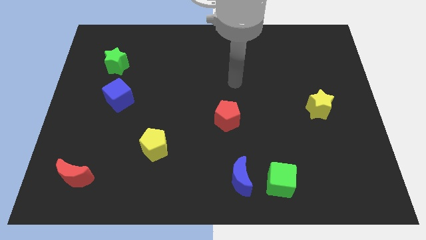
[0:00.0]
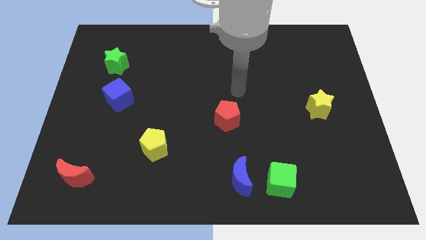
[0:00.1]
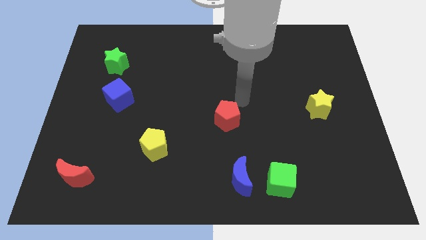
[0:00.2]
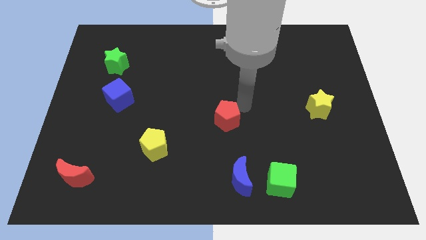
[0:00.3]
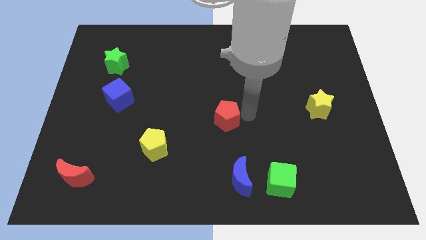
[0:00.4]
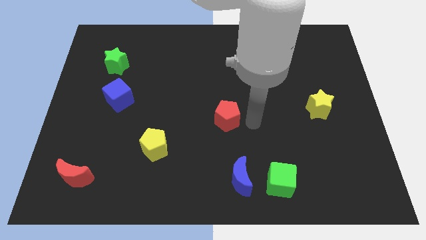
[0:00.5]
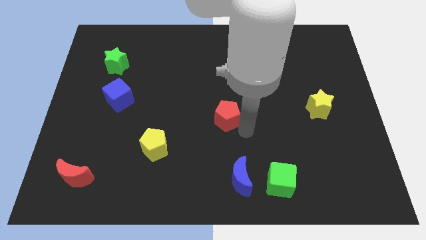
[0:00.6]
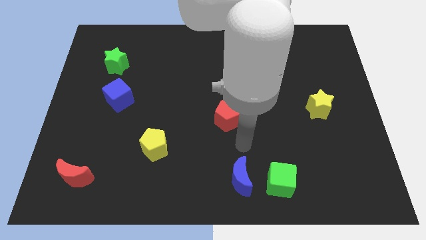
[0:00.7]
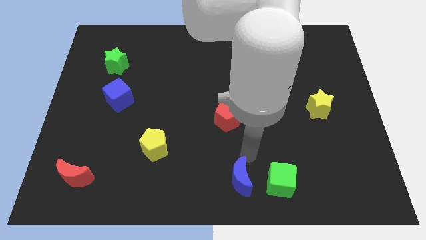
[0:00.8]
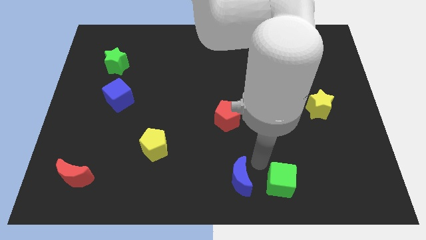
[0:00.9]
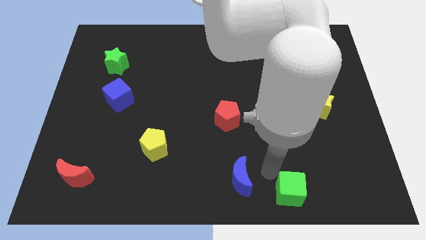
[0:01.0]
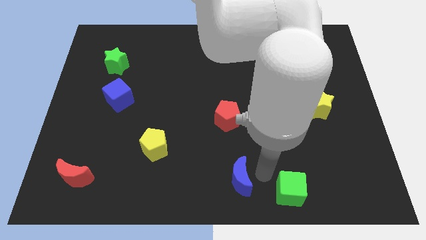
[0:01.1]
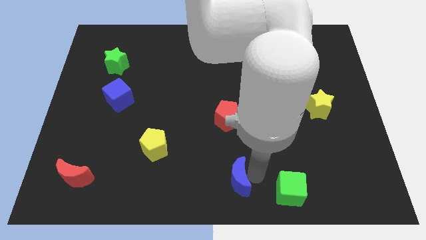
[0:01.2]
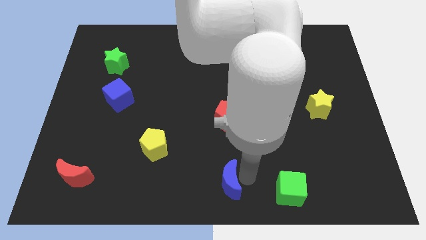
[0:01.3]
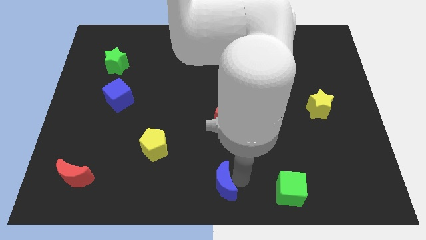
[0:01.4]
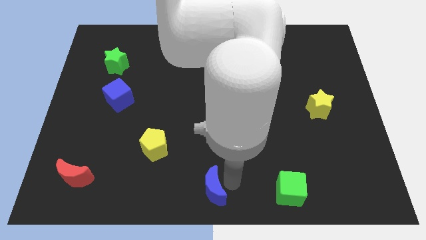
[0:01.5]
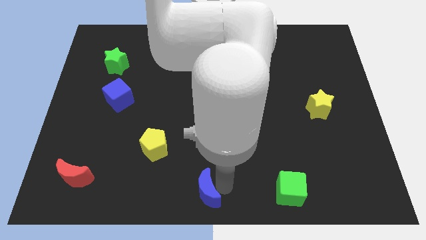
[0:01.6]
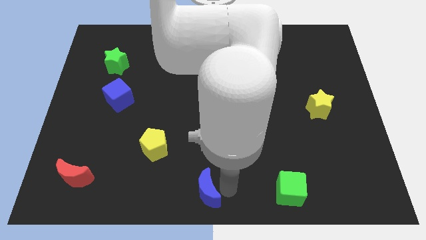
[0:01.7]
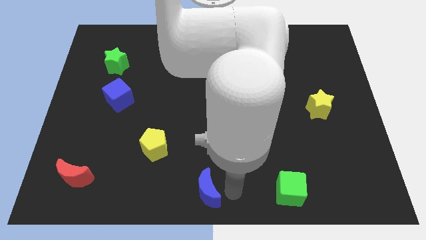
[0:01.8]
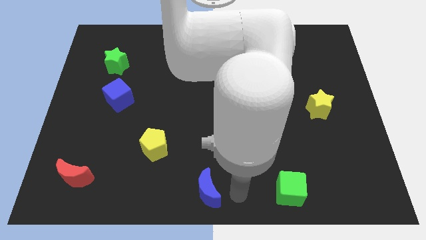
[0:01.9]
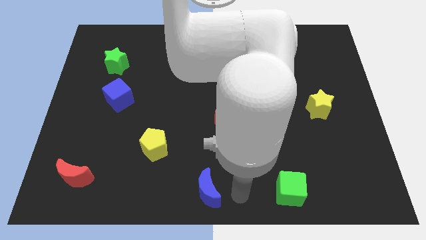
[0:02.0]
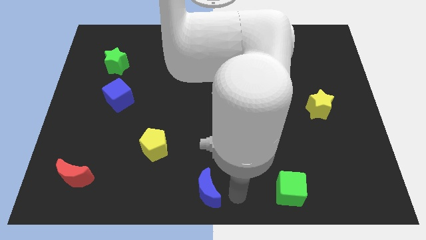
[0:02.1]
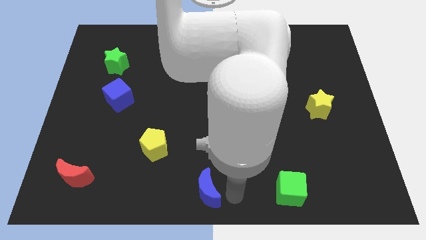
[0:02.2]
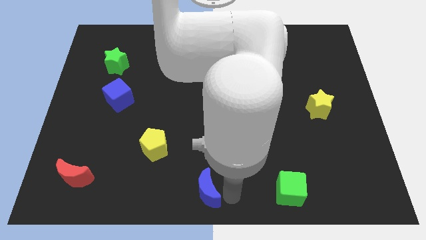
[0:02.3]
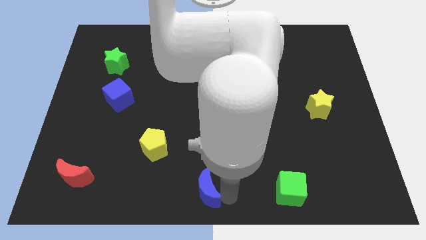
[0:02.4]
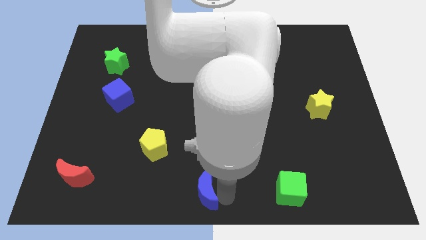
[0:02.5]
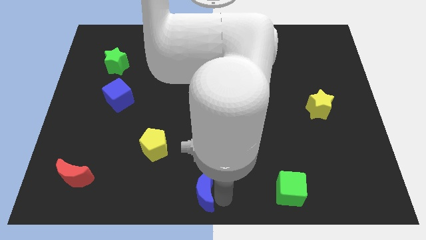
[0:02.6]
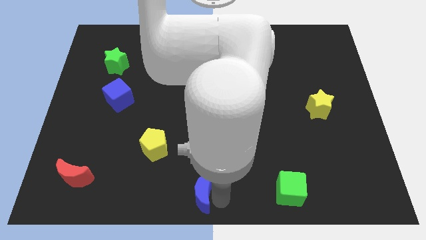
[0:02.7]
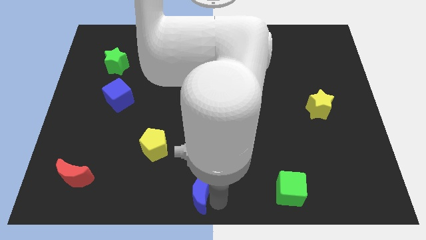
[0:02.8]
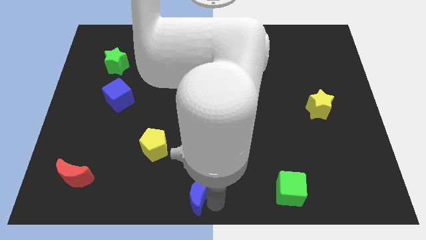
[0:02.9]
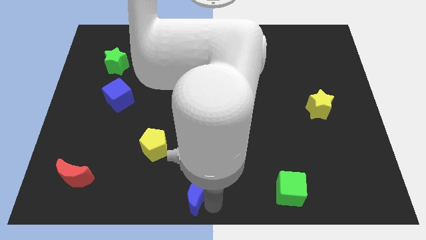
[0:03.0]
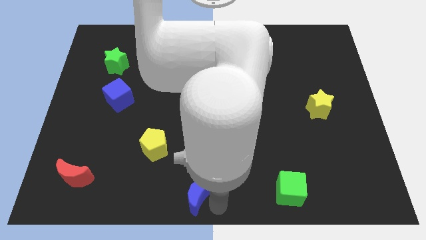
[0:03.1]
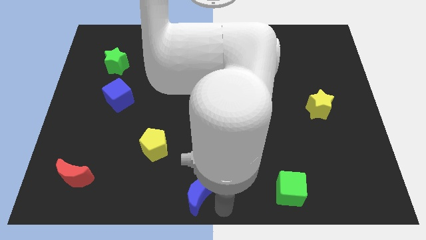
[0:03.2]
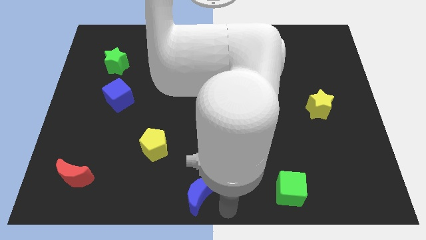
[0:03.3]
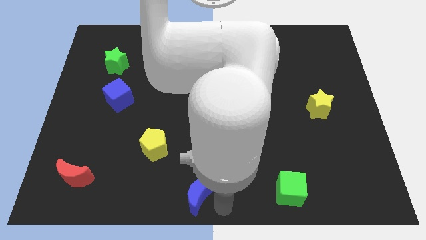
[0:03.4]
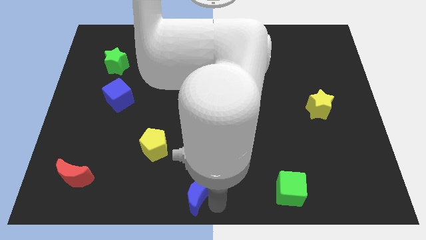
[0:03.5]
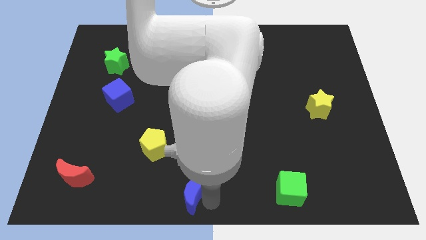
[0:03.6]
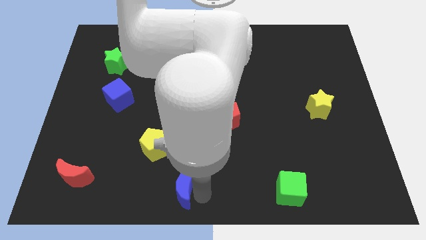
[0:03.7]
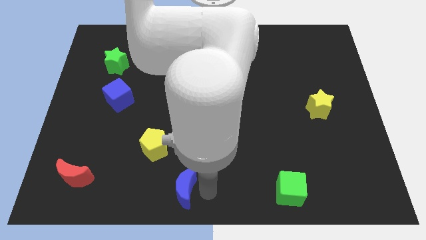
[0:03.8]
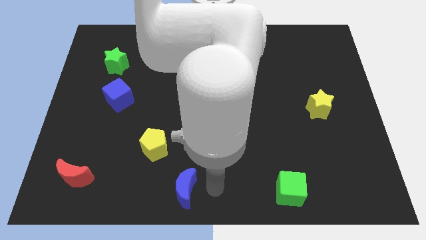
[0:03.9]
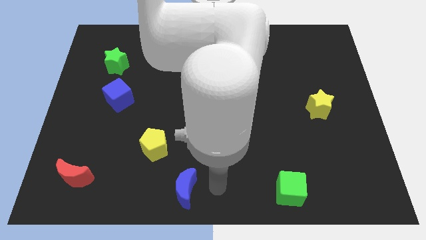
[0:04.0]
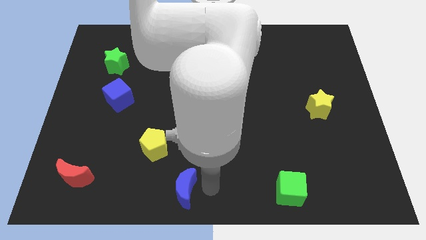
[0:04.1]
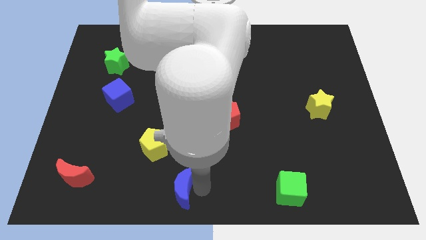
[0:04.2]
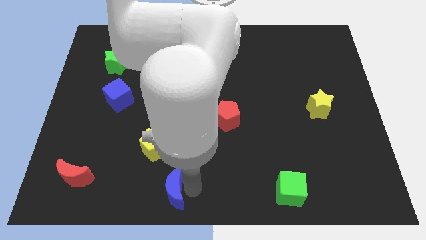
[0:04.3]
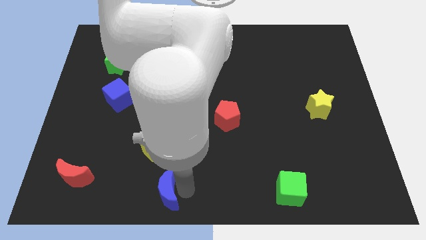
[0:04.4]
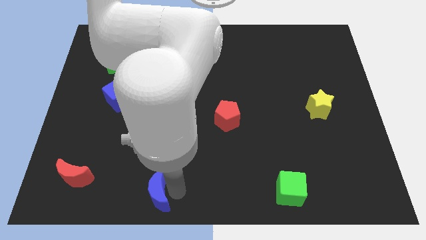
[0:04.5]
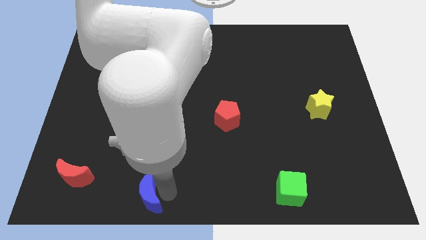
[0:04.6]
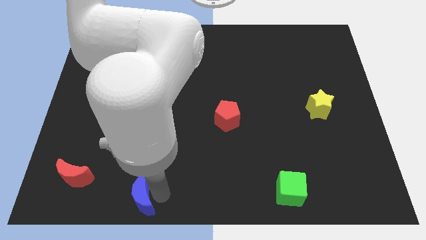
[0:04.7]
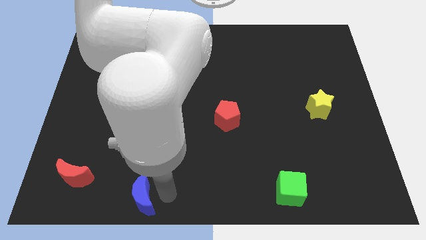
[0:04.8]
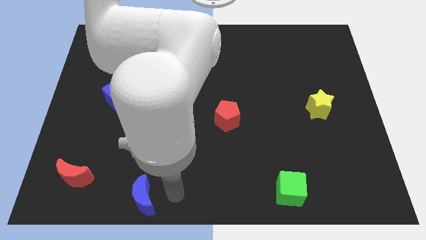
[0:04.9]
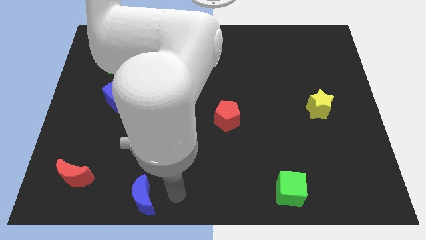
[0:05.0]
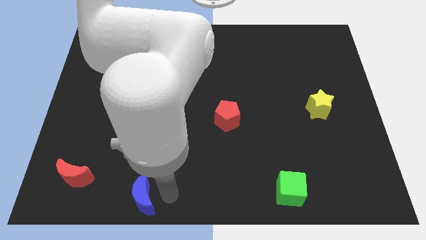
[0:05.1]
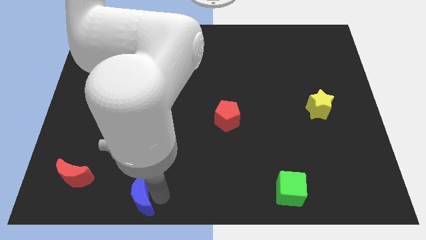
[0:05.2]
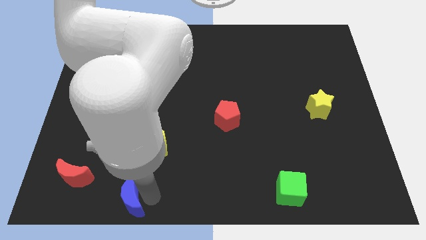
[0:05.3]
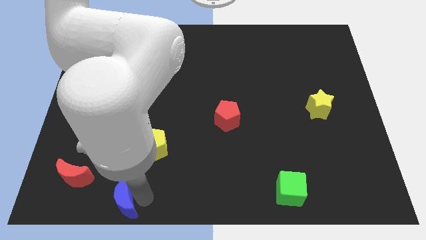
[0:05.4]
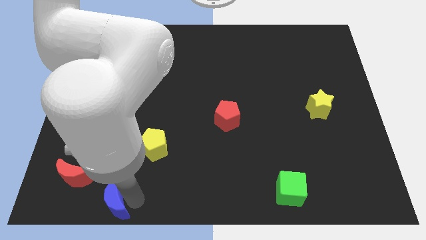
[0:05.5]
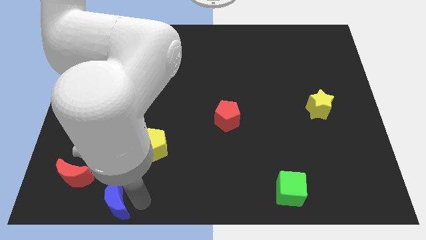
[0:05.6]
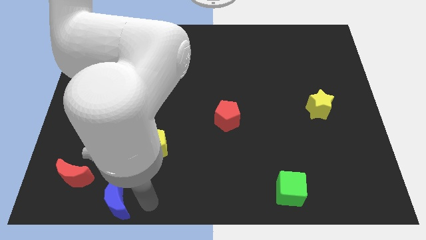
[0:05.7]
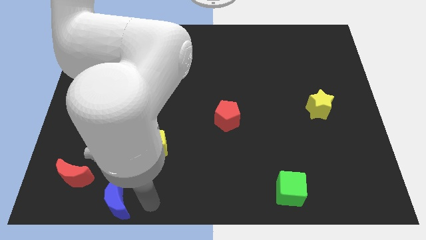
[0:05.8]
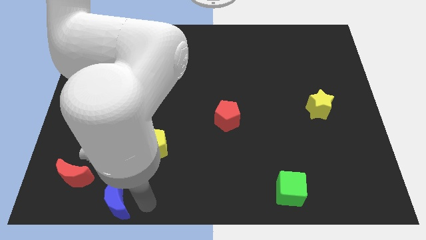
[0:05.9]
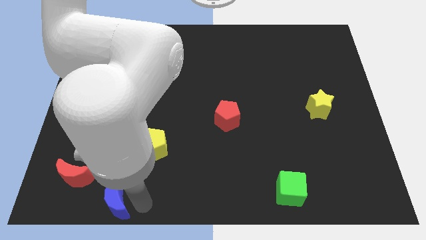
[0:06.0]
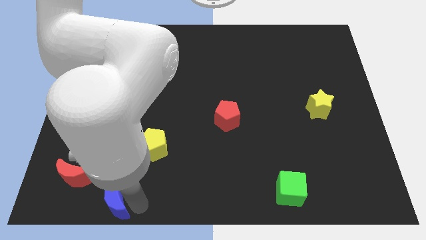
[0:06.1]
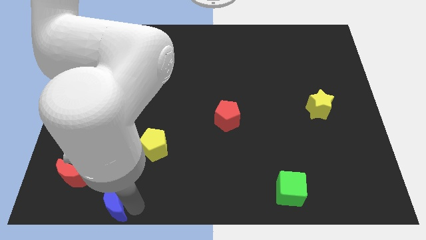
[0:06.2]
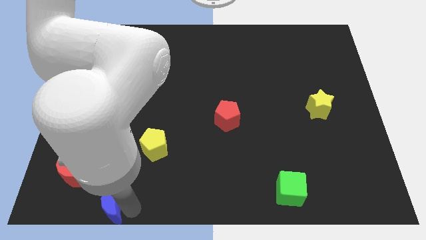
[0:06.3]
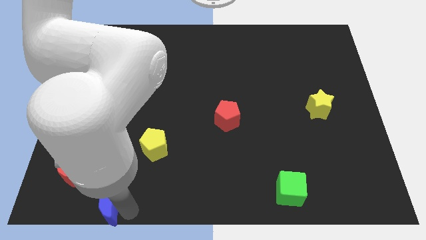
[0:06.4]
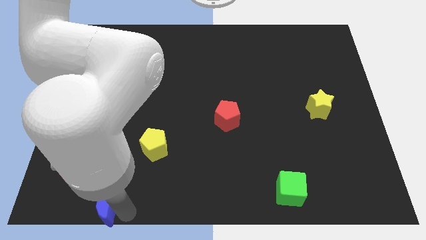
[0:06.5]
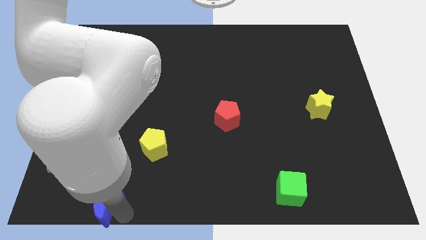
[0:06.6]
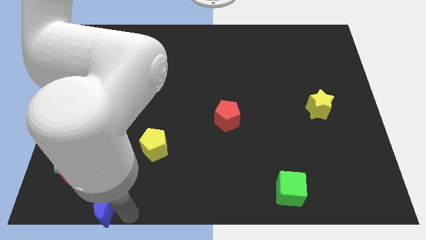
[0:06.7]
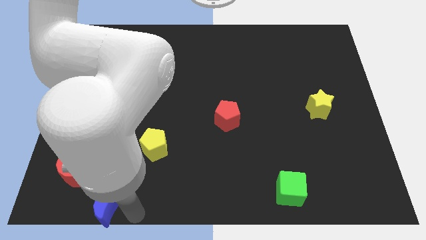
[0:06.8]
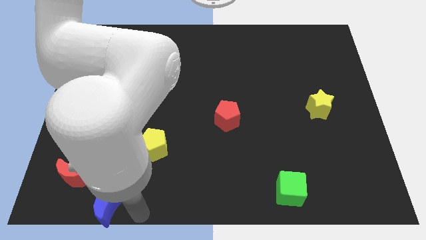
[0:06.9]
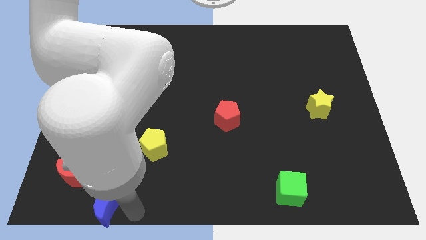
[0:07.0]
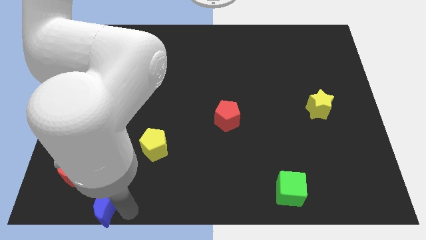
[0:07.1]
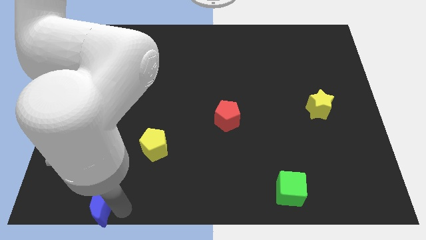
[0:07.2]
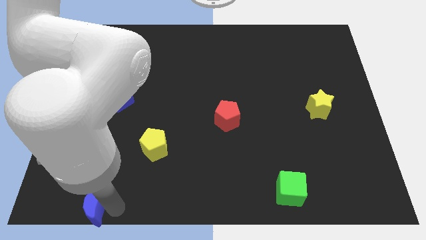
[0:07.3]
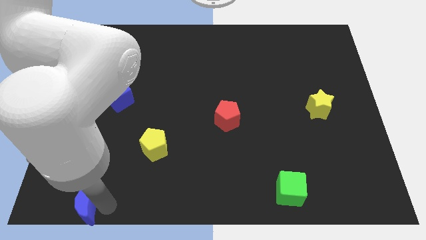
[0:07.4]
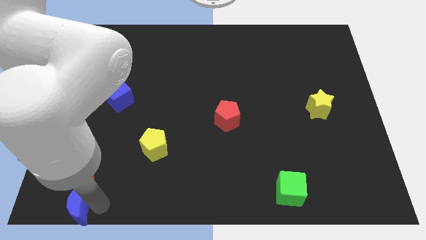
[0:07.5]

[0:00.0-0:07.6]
slide the blue moon to the bottom left

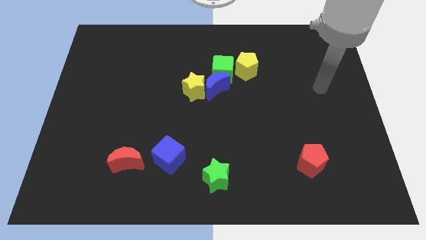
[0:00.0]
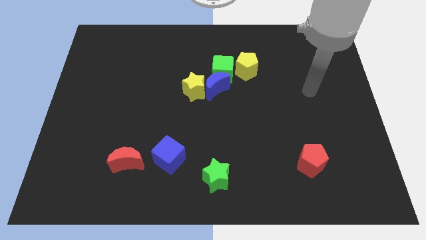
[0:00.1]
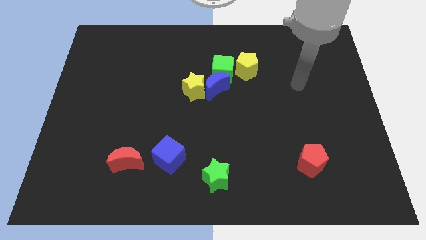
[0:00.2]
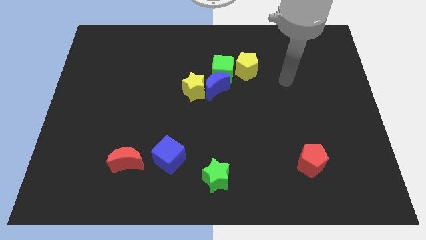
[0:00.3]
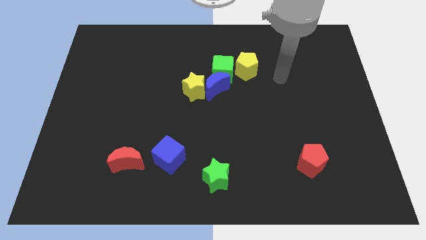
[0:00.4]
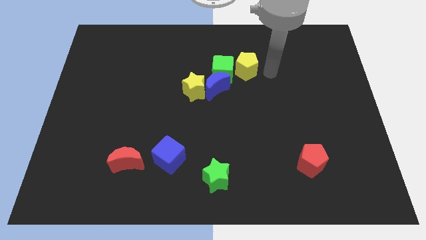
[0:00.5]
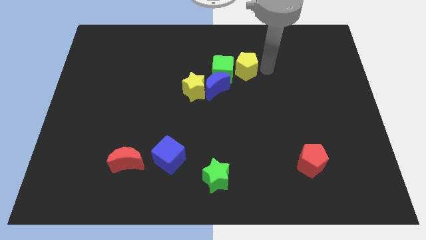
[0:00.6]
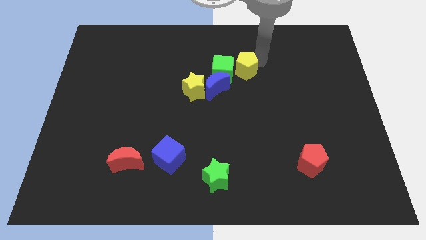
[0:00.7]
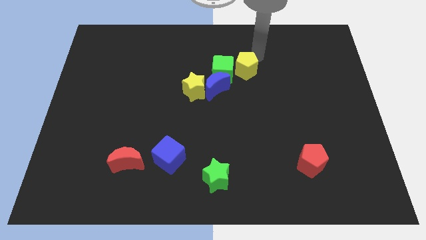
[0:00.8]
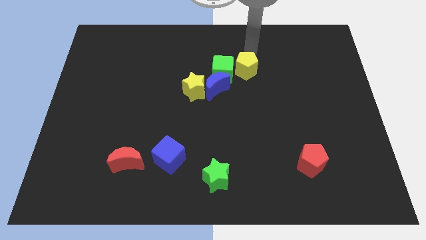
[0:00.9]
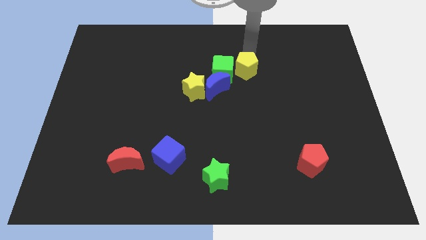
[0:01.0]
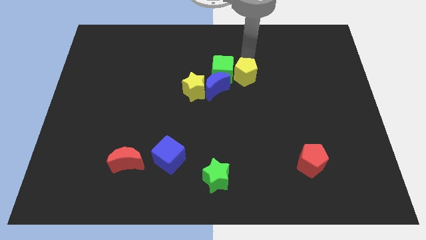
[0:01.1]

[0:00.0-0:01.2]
put the yellow pentagon to the middle
